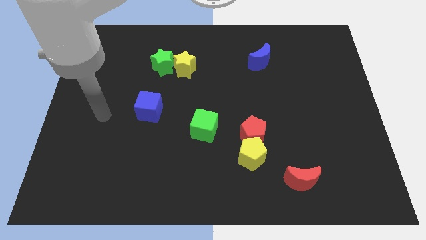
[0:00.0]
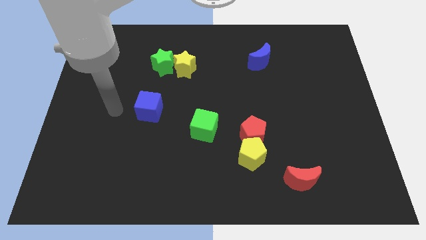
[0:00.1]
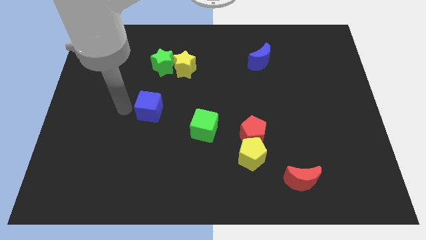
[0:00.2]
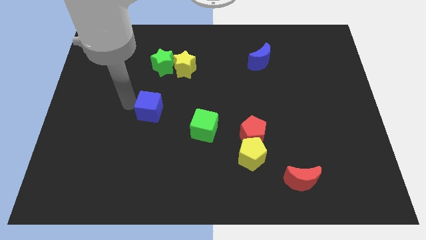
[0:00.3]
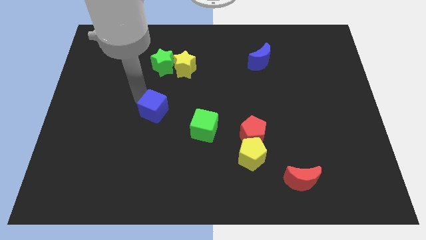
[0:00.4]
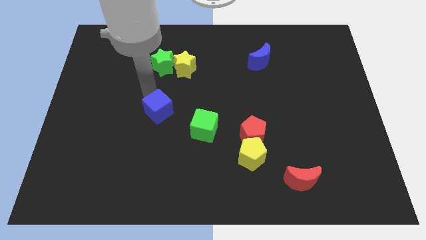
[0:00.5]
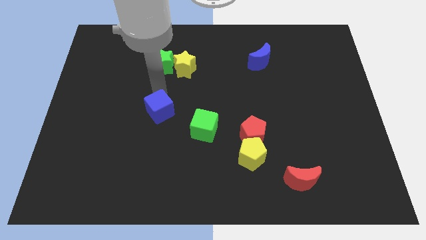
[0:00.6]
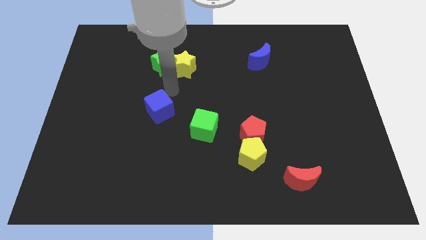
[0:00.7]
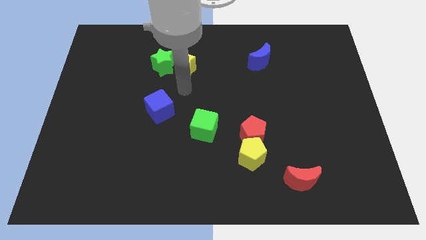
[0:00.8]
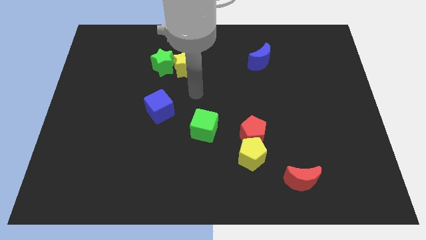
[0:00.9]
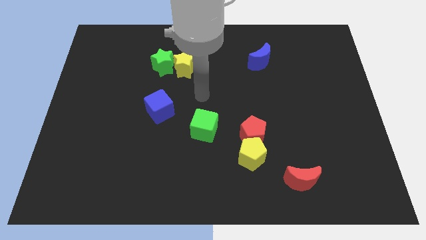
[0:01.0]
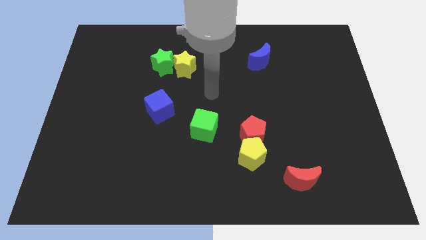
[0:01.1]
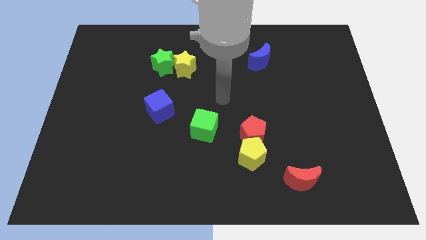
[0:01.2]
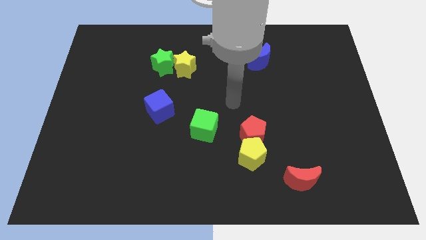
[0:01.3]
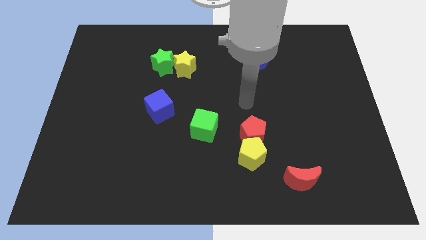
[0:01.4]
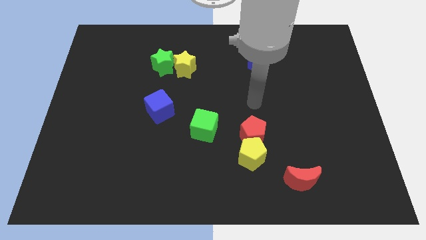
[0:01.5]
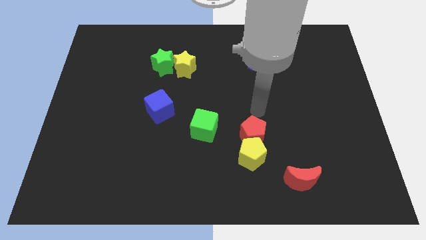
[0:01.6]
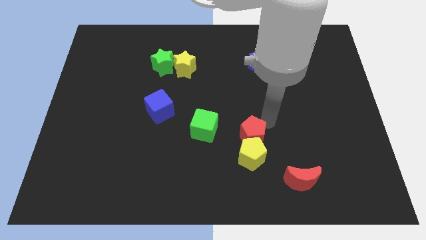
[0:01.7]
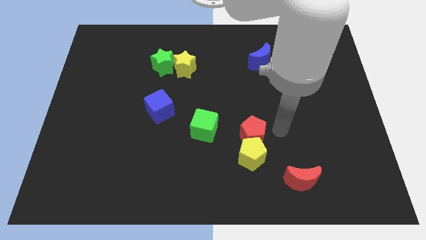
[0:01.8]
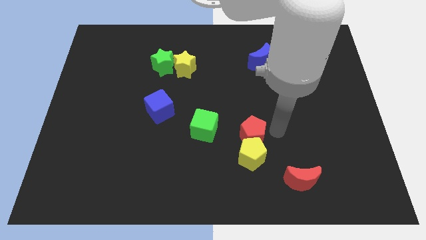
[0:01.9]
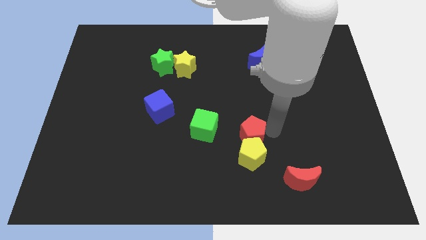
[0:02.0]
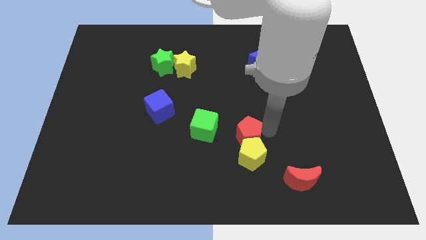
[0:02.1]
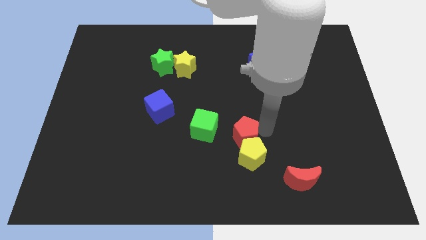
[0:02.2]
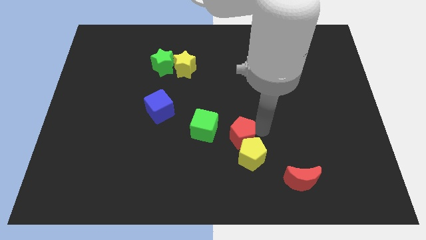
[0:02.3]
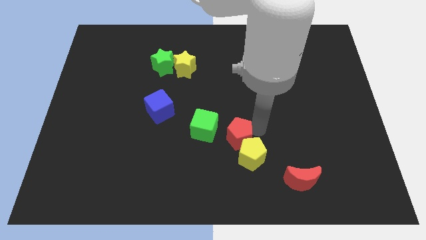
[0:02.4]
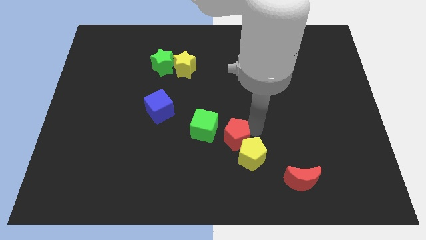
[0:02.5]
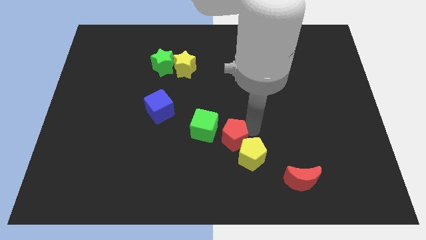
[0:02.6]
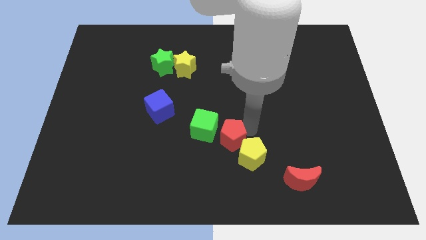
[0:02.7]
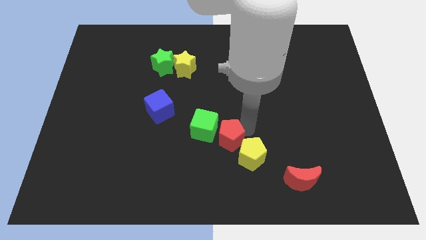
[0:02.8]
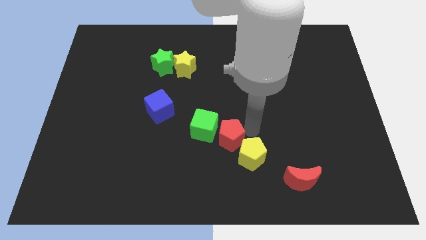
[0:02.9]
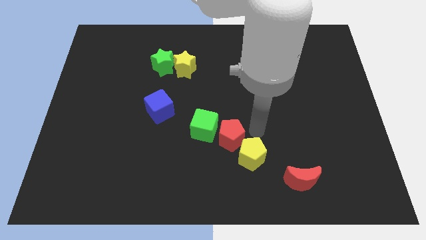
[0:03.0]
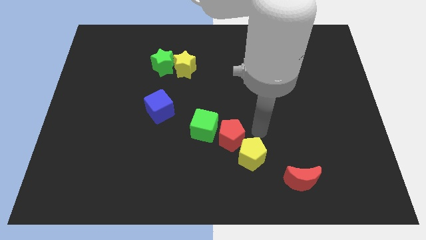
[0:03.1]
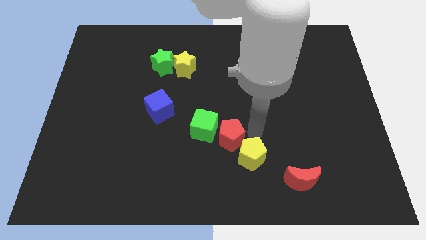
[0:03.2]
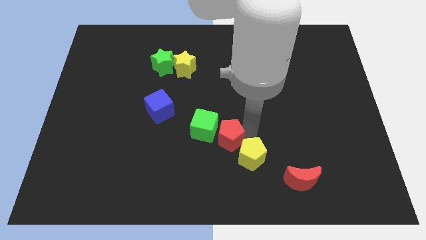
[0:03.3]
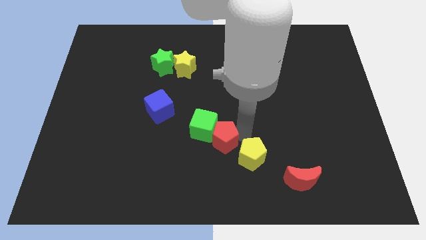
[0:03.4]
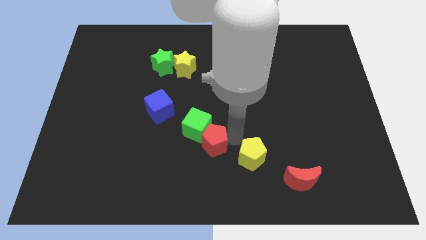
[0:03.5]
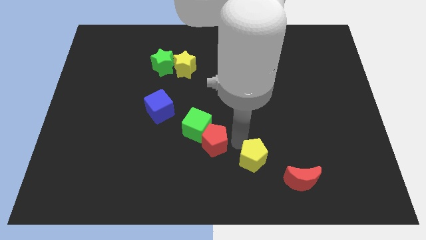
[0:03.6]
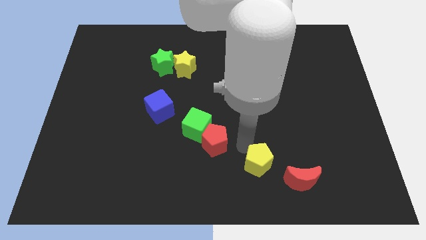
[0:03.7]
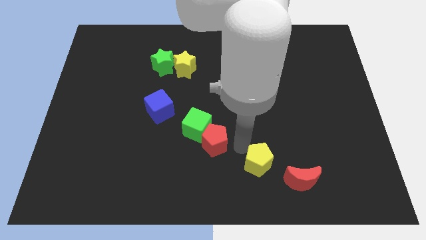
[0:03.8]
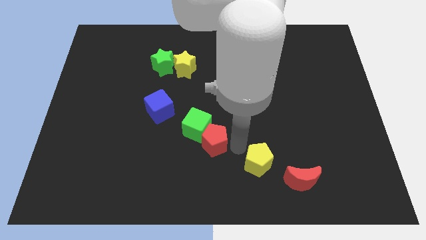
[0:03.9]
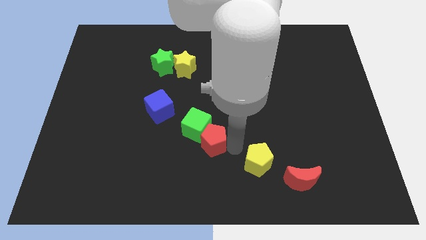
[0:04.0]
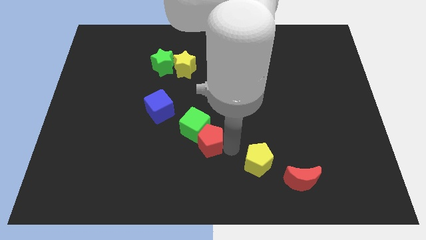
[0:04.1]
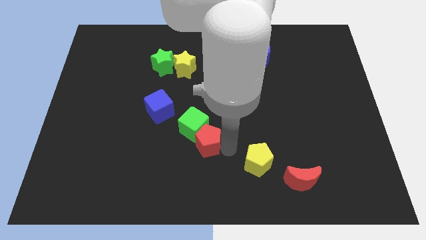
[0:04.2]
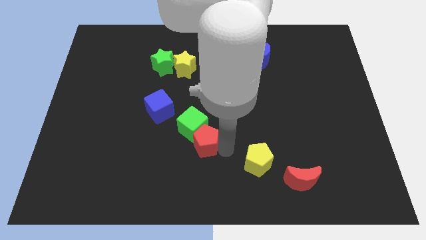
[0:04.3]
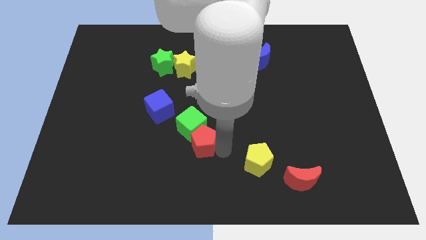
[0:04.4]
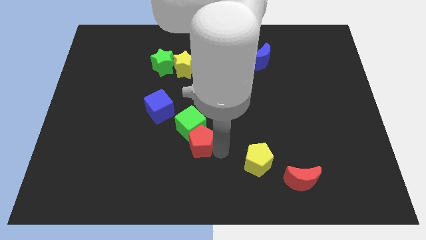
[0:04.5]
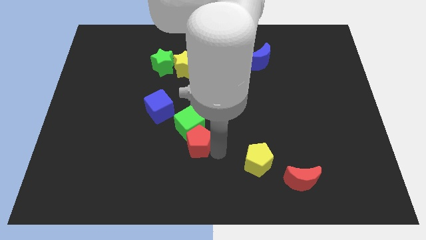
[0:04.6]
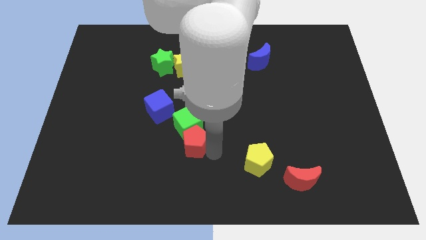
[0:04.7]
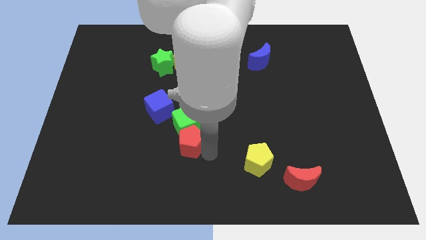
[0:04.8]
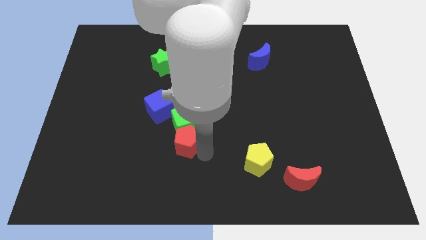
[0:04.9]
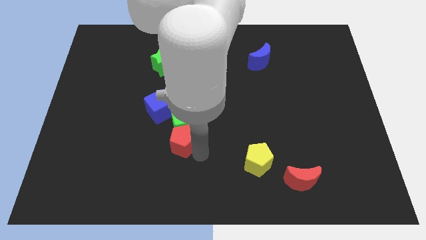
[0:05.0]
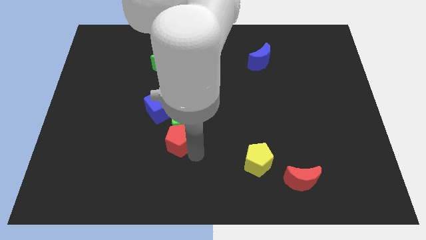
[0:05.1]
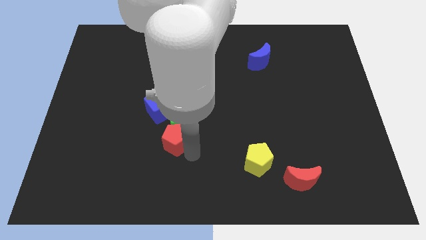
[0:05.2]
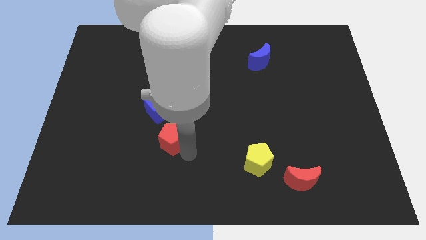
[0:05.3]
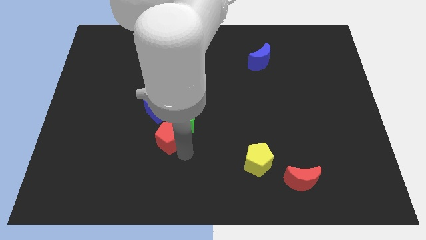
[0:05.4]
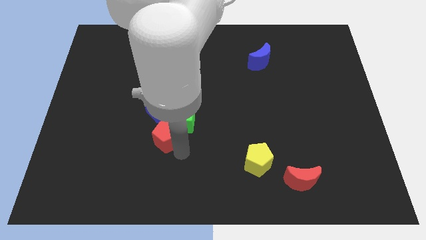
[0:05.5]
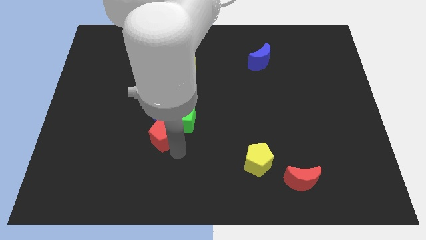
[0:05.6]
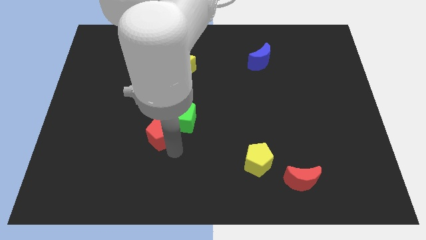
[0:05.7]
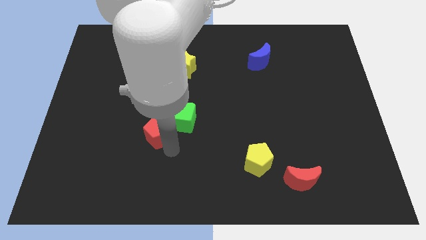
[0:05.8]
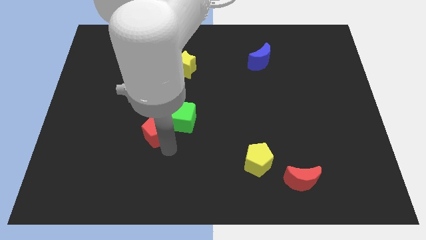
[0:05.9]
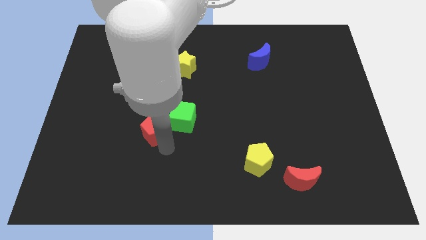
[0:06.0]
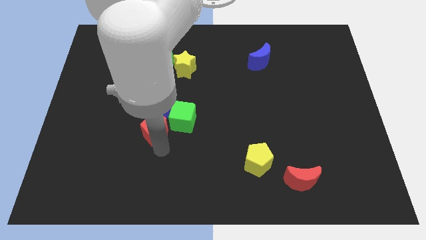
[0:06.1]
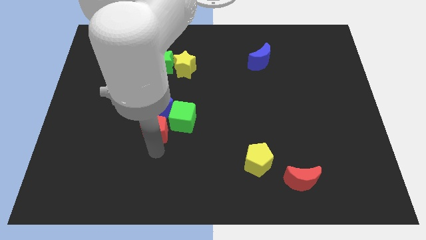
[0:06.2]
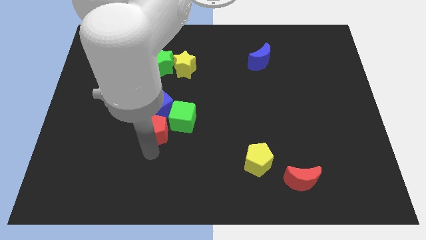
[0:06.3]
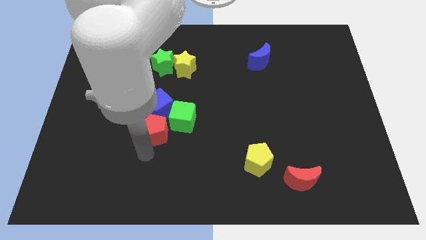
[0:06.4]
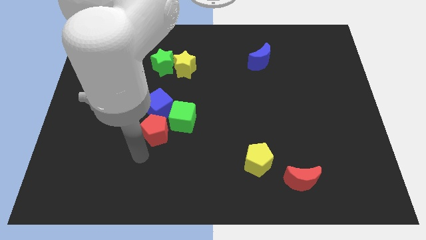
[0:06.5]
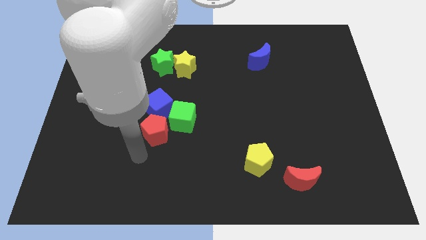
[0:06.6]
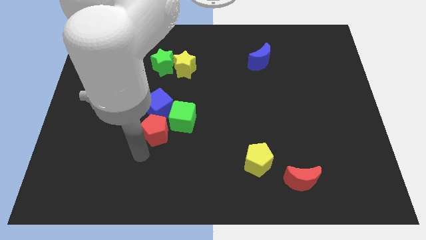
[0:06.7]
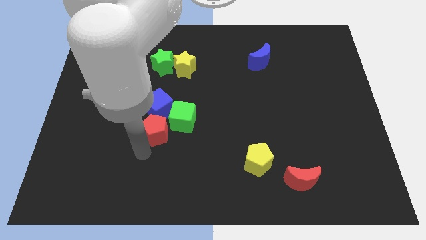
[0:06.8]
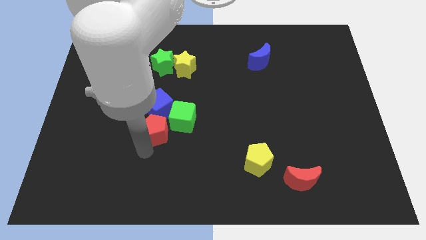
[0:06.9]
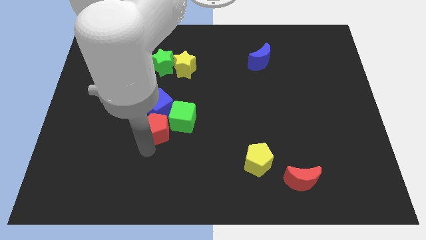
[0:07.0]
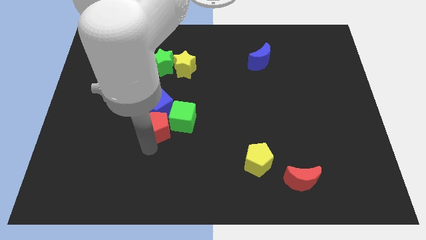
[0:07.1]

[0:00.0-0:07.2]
slide the red pentagon to the blue cube

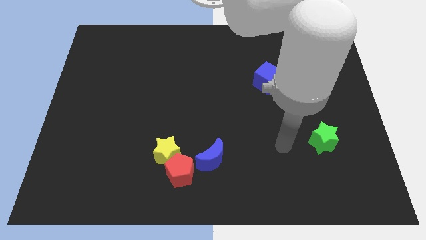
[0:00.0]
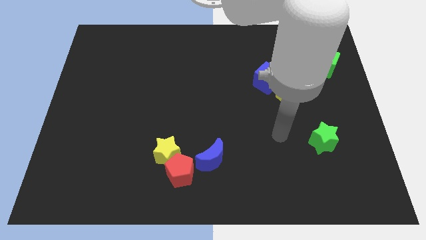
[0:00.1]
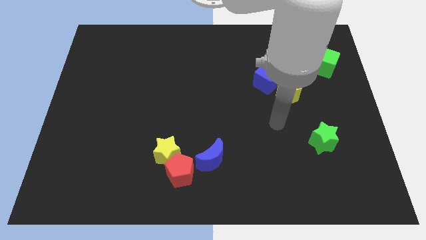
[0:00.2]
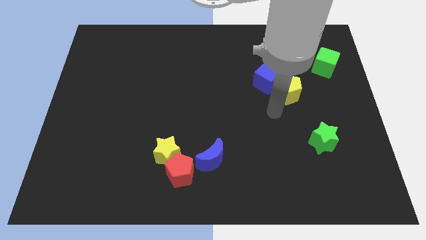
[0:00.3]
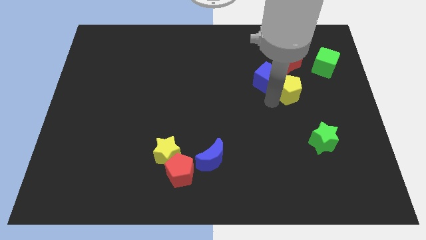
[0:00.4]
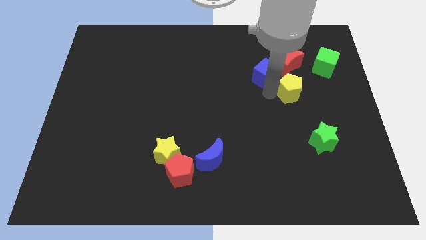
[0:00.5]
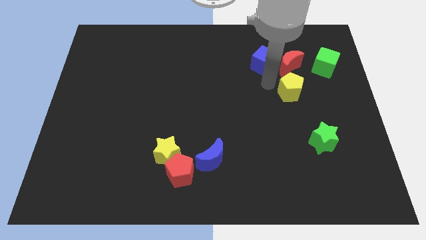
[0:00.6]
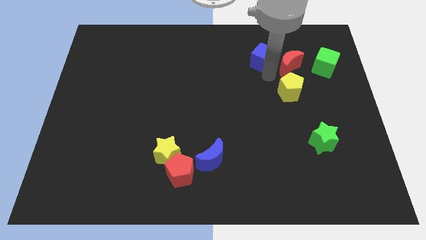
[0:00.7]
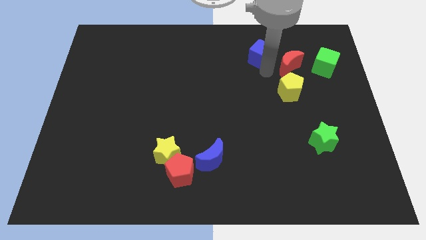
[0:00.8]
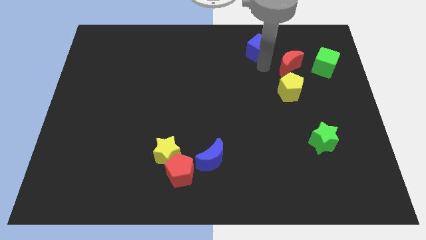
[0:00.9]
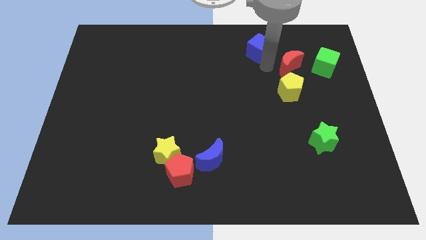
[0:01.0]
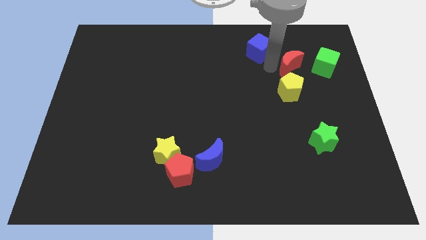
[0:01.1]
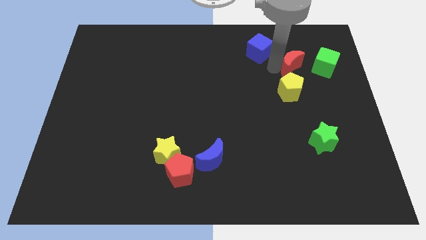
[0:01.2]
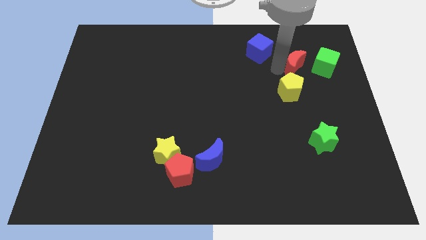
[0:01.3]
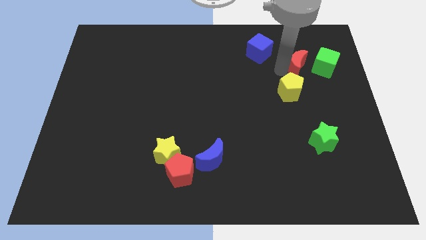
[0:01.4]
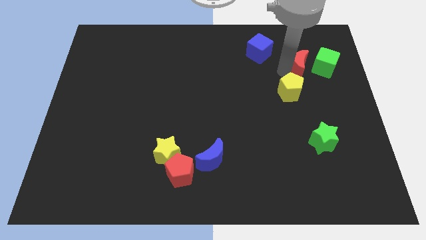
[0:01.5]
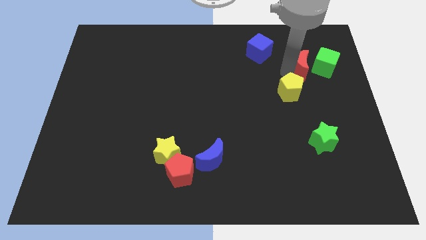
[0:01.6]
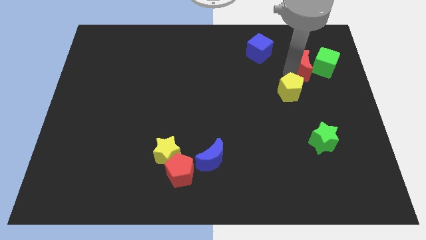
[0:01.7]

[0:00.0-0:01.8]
move the red moon close to the green cube
